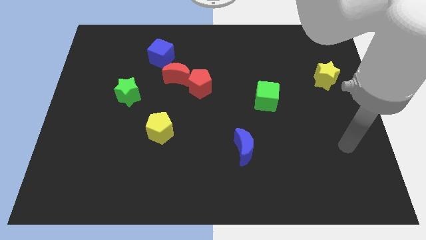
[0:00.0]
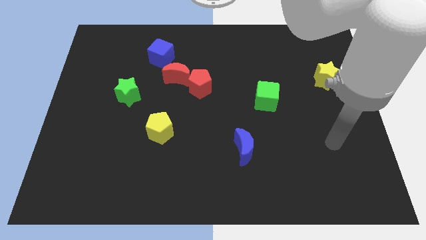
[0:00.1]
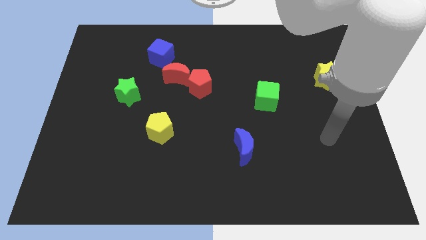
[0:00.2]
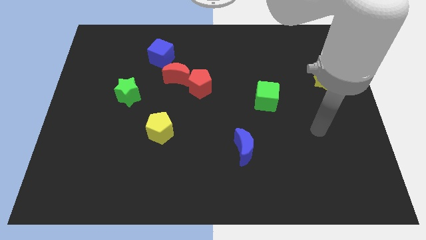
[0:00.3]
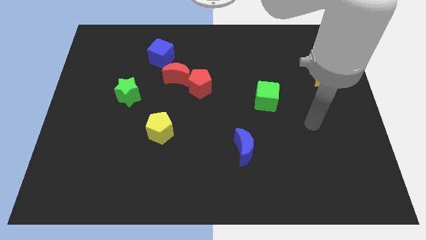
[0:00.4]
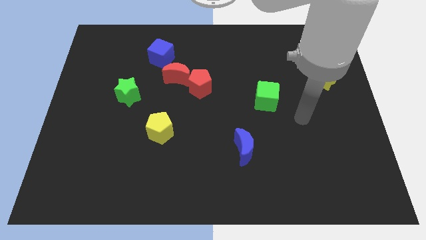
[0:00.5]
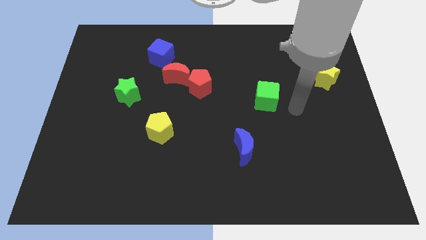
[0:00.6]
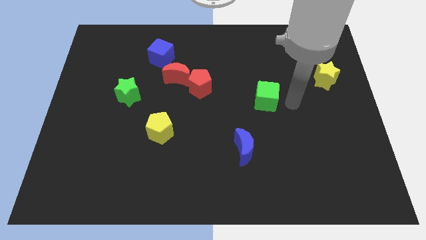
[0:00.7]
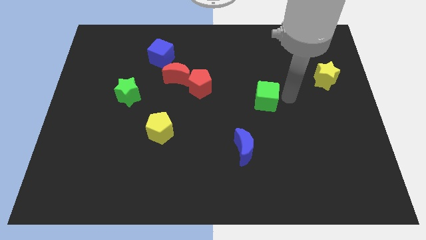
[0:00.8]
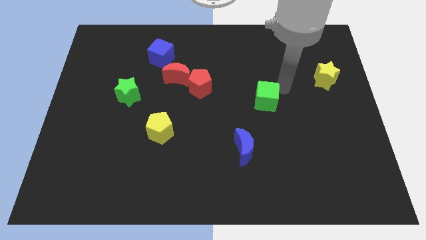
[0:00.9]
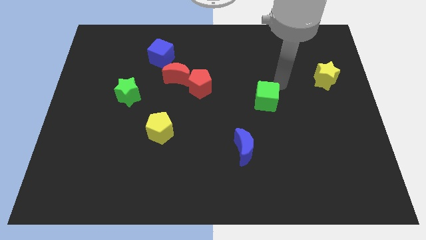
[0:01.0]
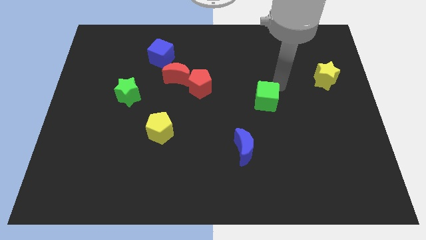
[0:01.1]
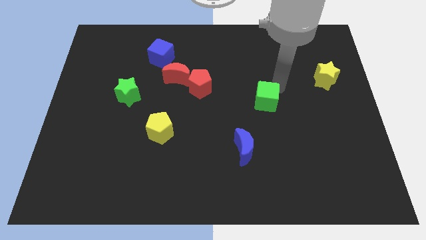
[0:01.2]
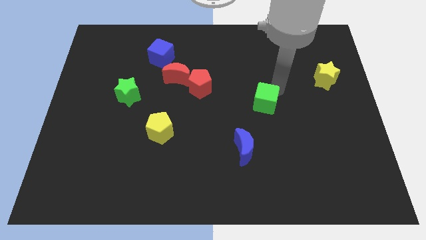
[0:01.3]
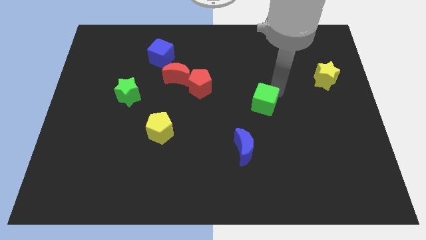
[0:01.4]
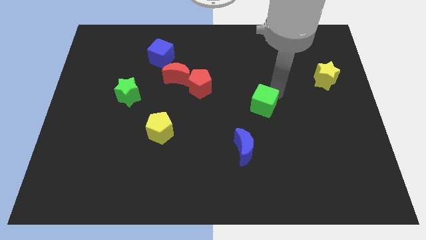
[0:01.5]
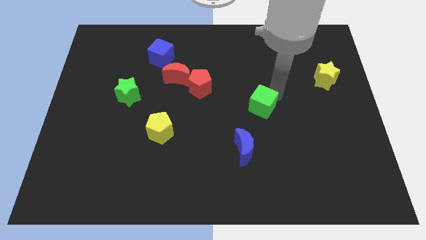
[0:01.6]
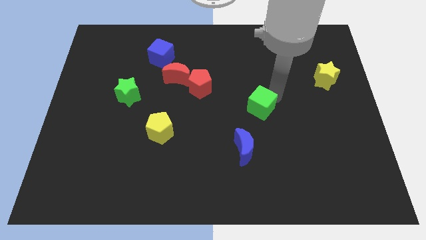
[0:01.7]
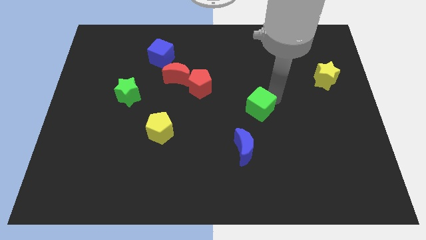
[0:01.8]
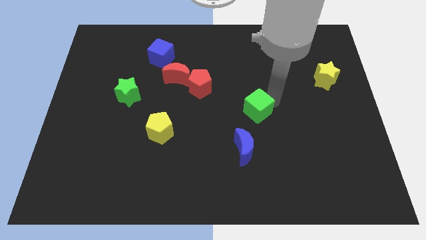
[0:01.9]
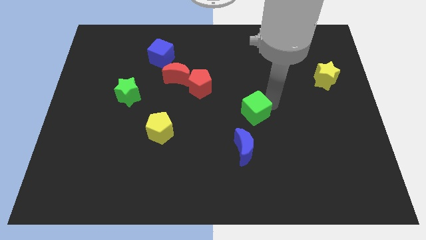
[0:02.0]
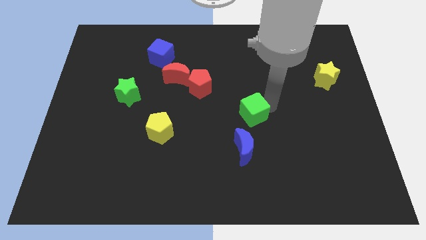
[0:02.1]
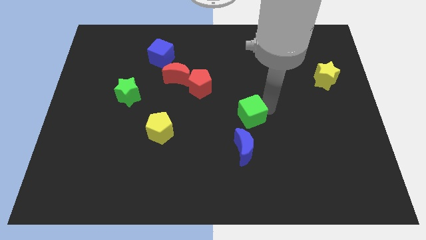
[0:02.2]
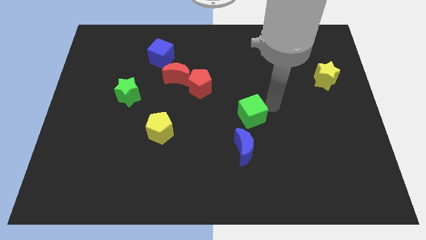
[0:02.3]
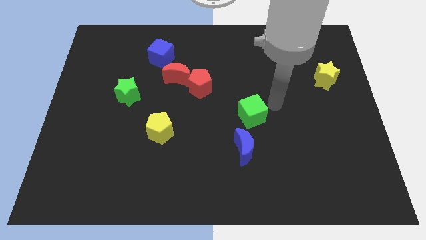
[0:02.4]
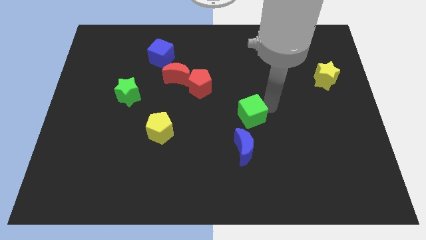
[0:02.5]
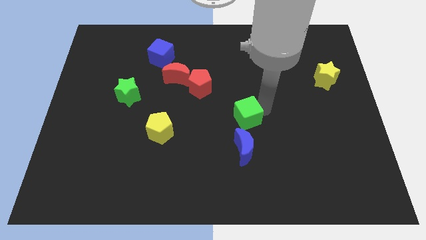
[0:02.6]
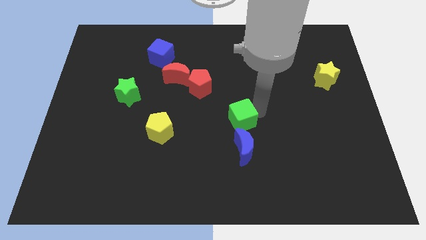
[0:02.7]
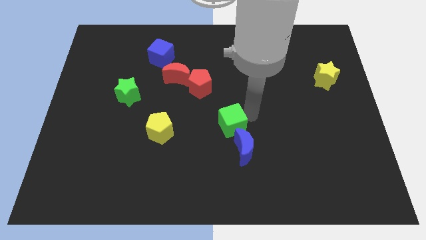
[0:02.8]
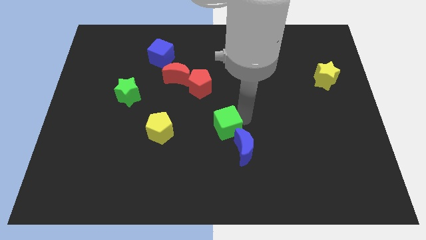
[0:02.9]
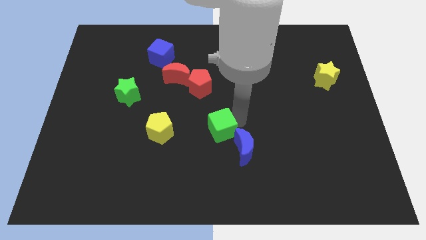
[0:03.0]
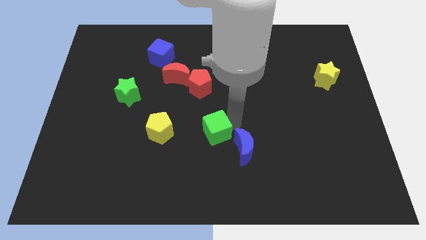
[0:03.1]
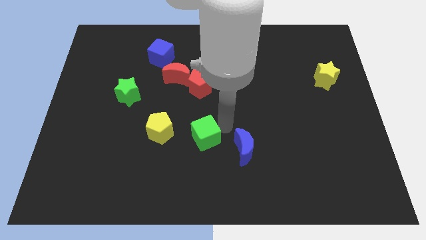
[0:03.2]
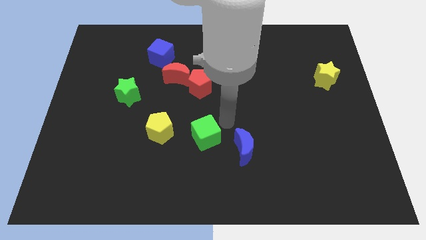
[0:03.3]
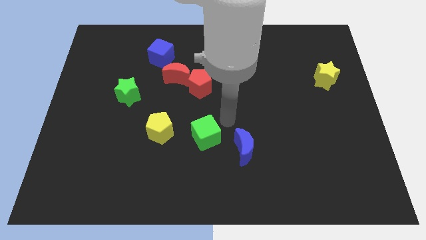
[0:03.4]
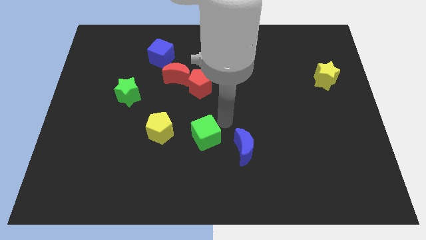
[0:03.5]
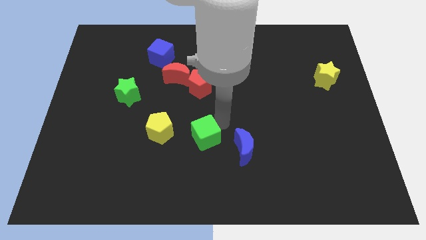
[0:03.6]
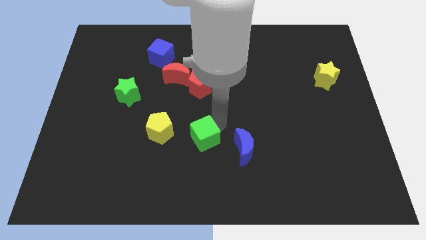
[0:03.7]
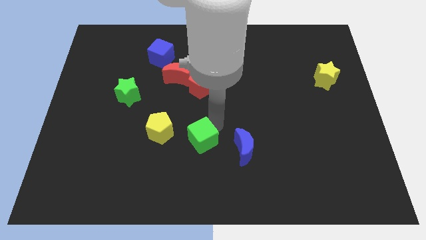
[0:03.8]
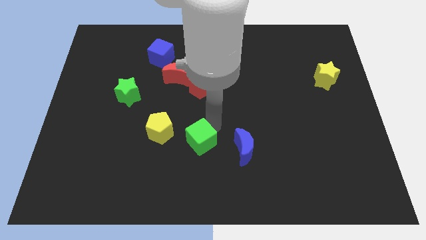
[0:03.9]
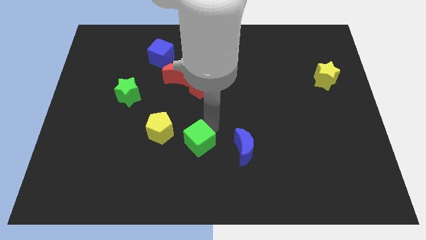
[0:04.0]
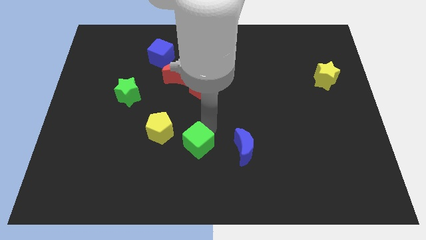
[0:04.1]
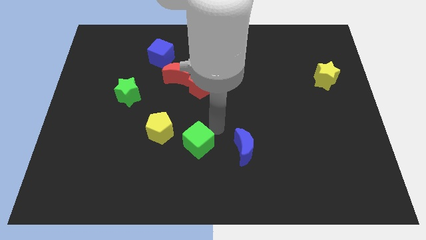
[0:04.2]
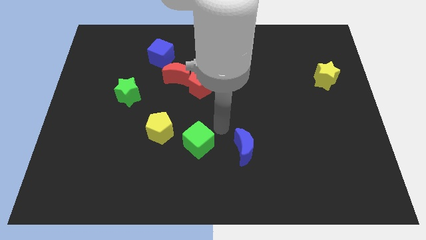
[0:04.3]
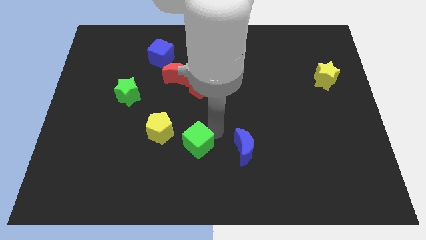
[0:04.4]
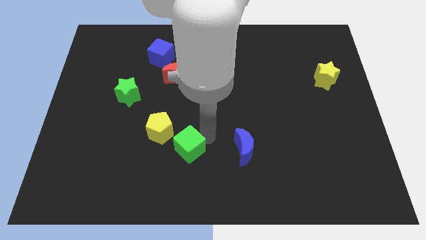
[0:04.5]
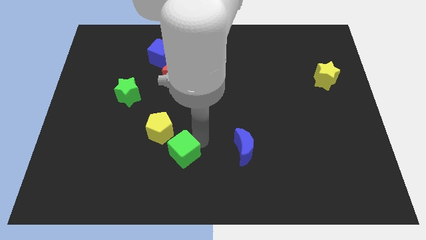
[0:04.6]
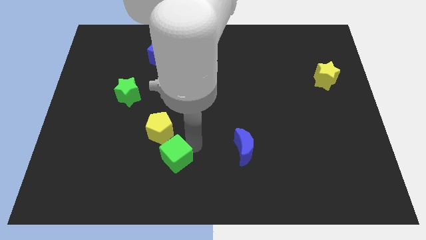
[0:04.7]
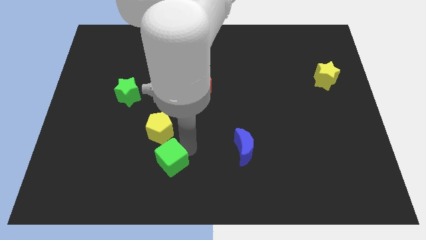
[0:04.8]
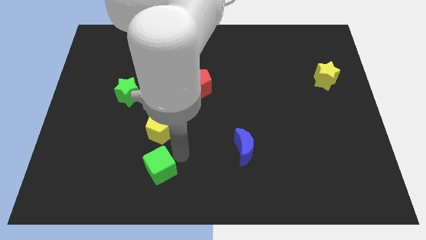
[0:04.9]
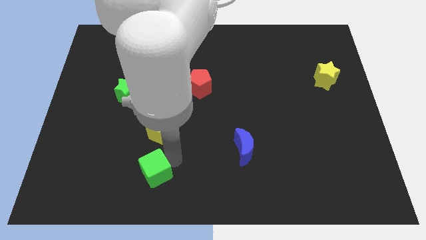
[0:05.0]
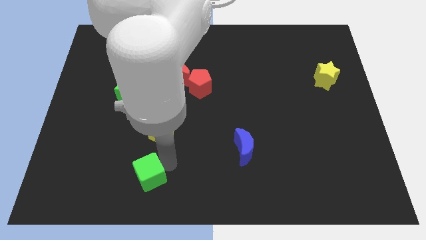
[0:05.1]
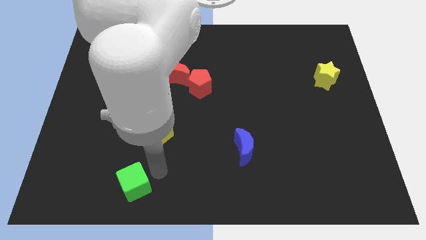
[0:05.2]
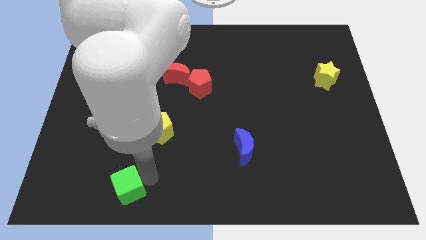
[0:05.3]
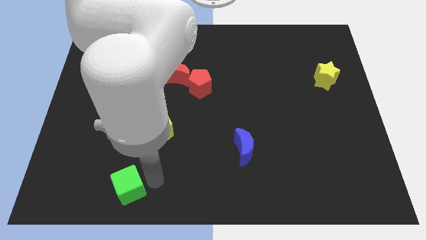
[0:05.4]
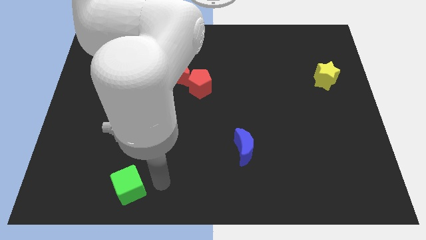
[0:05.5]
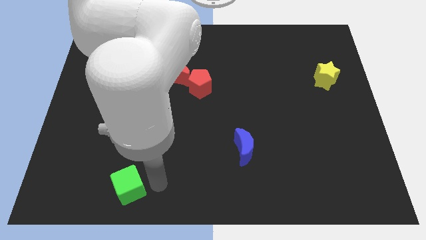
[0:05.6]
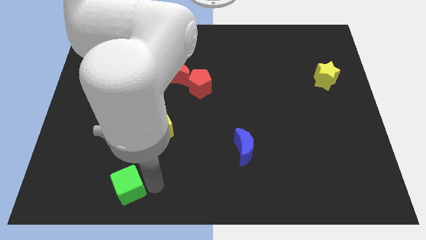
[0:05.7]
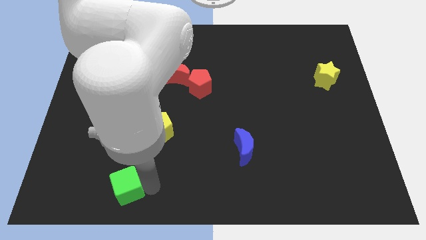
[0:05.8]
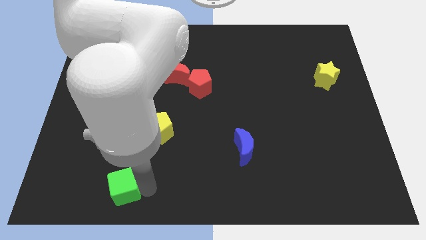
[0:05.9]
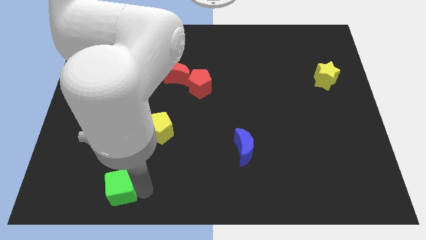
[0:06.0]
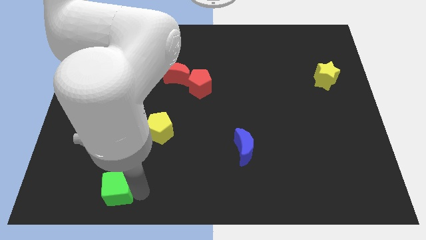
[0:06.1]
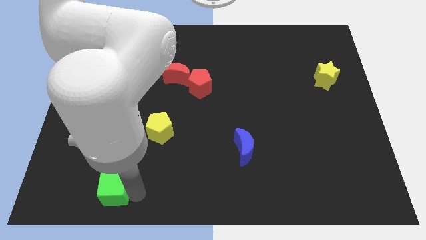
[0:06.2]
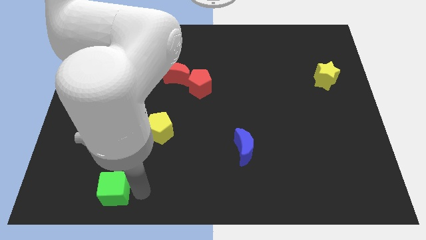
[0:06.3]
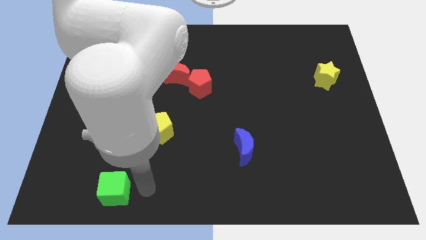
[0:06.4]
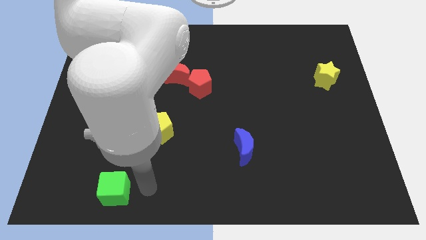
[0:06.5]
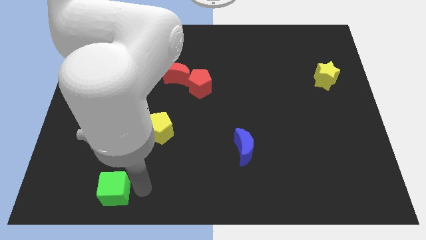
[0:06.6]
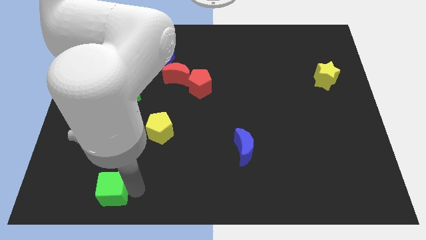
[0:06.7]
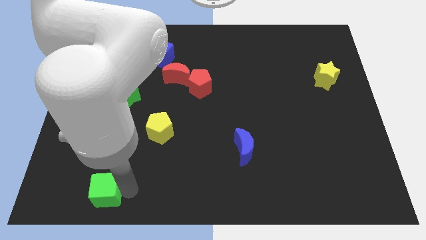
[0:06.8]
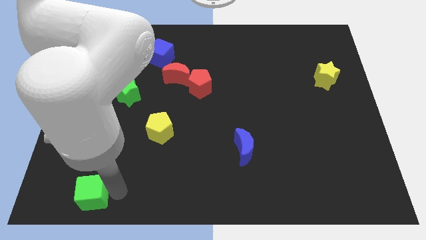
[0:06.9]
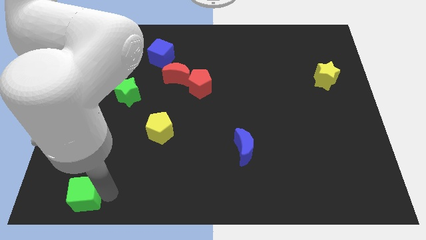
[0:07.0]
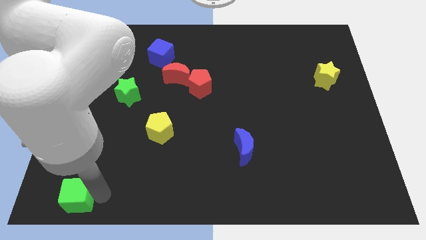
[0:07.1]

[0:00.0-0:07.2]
move the green cube to the bottom left
